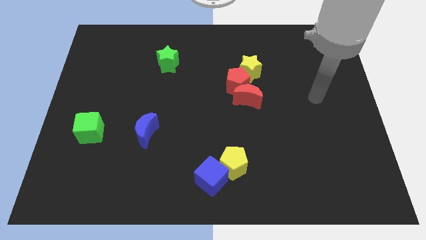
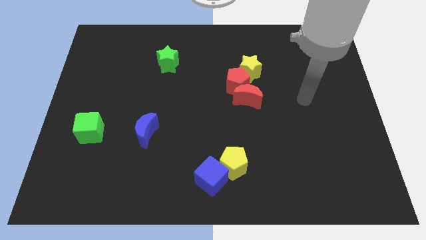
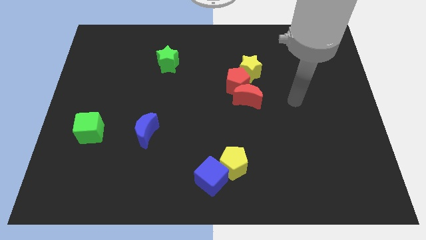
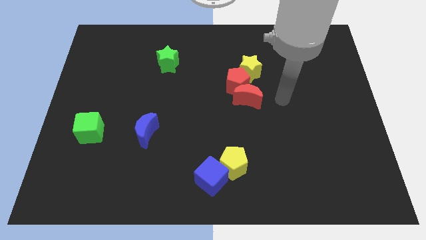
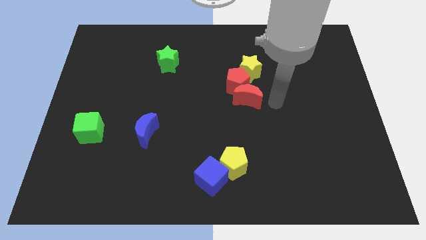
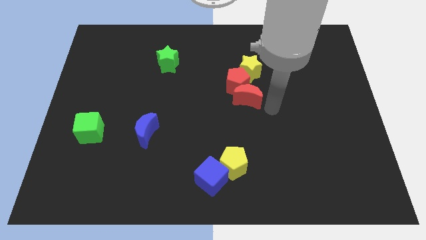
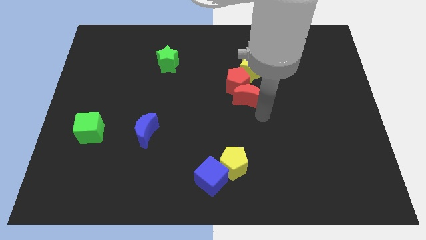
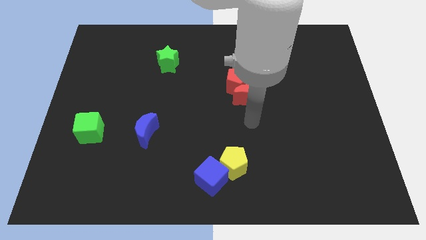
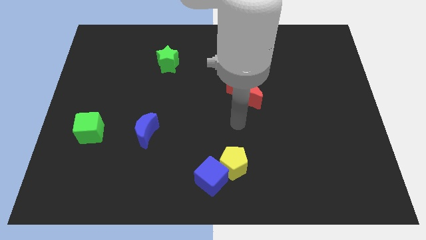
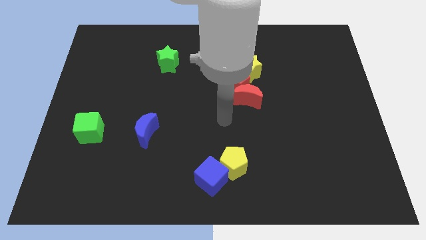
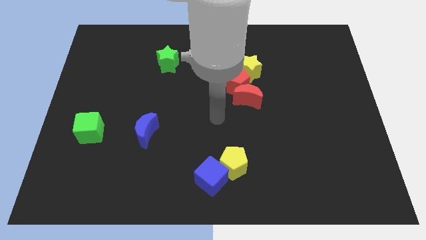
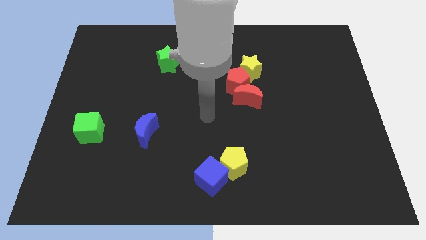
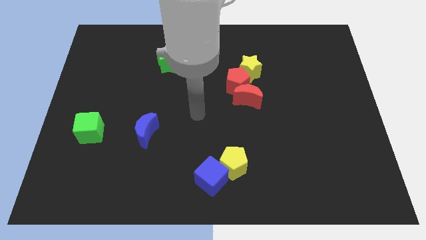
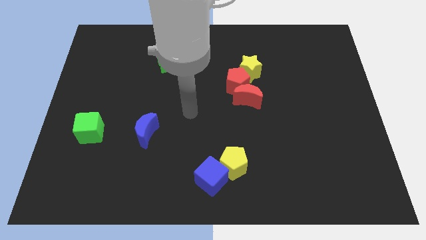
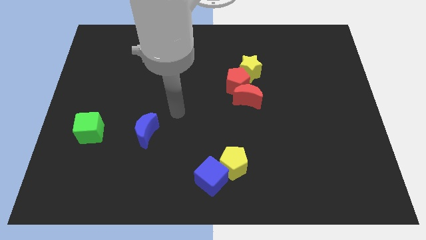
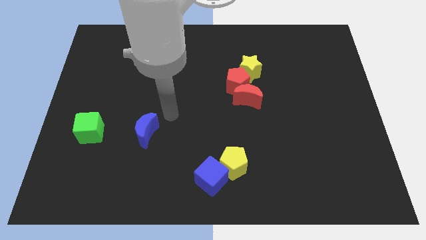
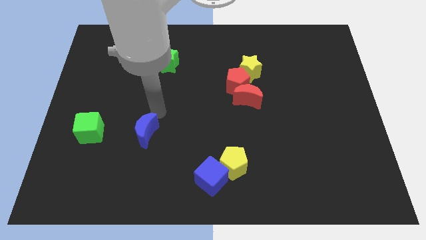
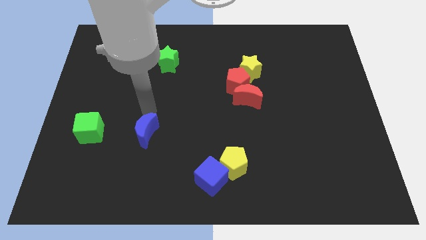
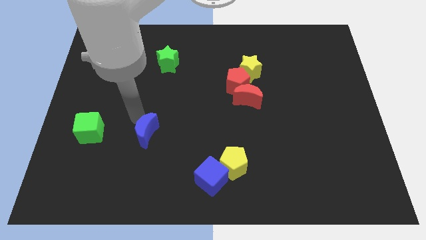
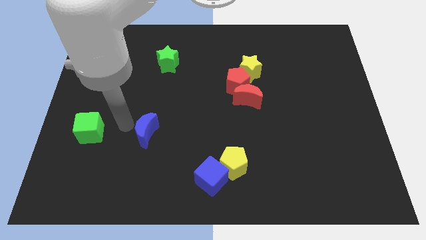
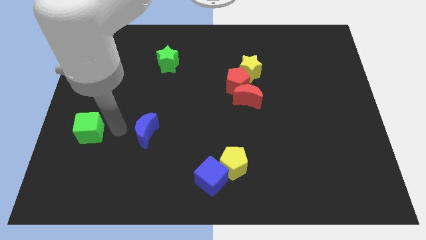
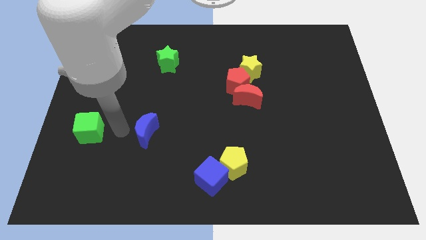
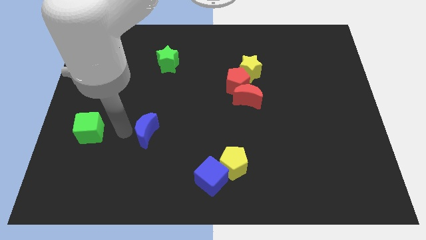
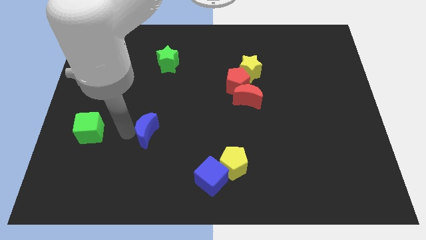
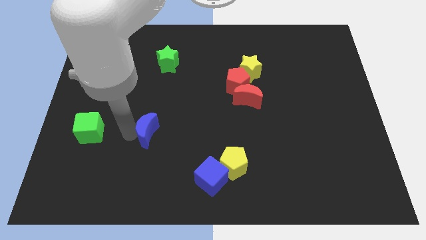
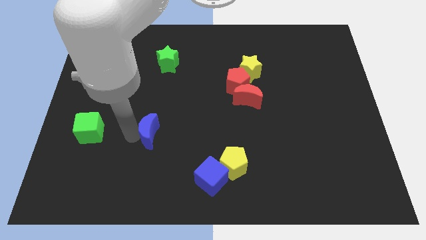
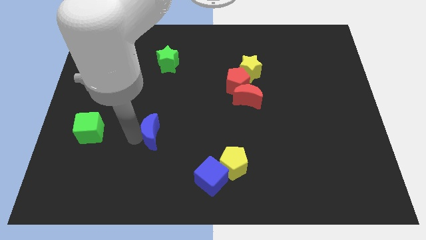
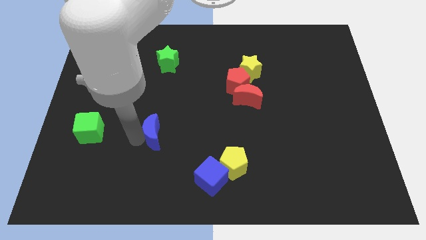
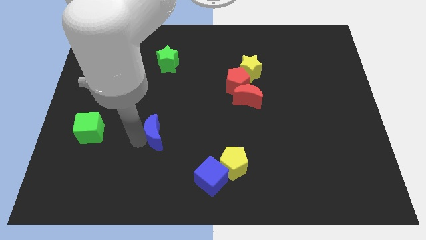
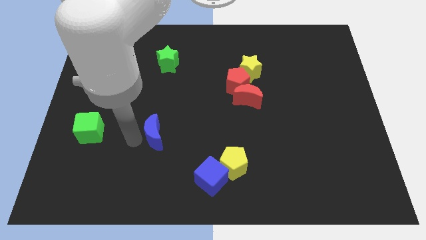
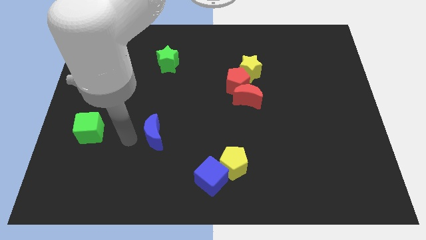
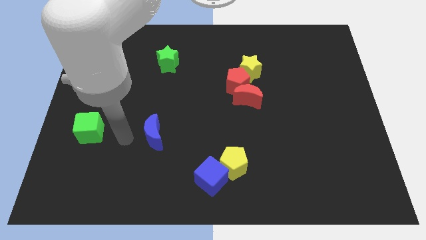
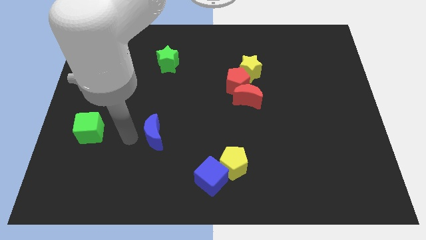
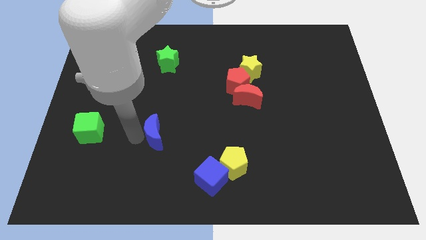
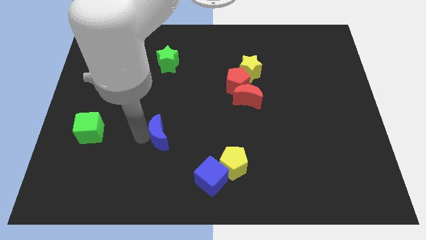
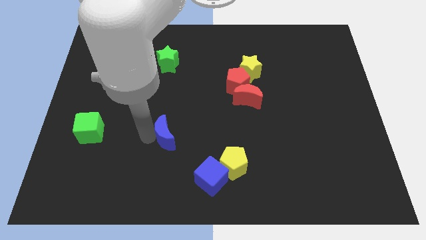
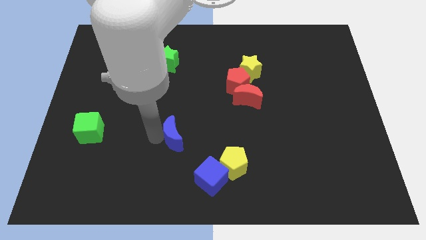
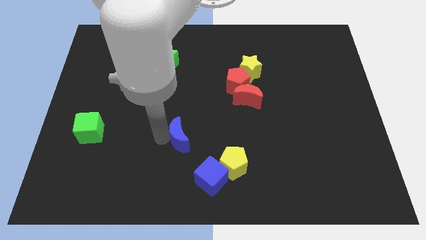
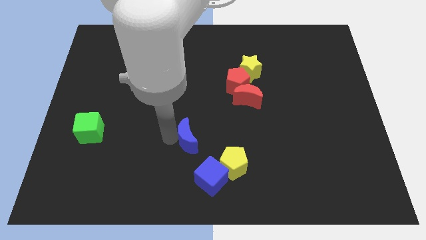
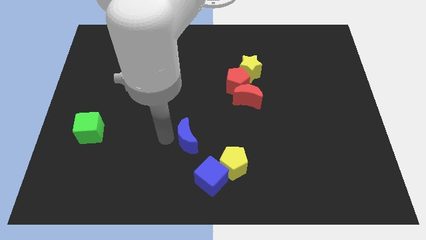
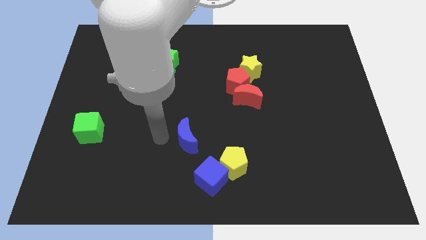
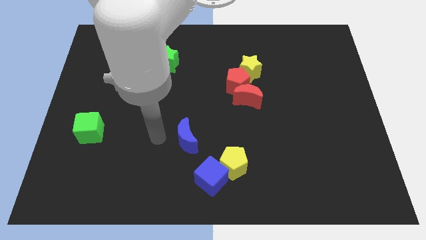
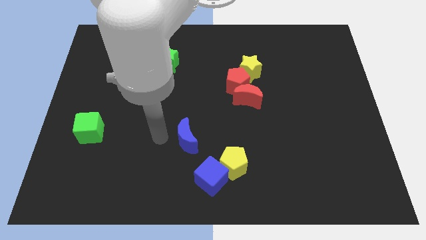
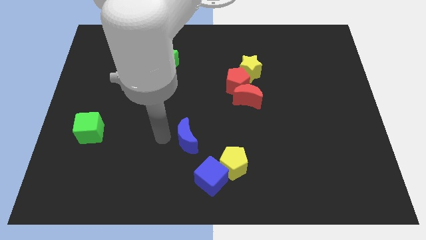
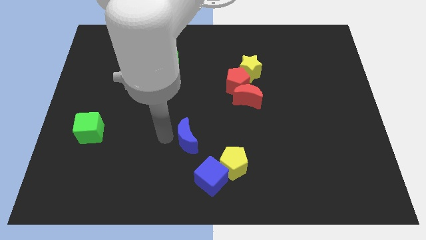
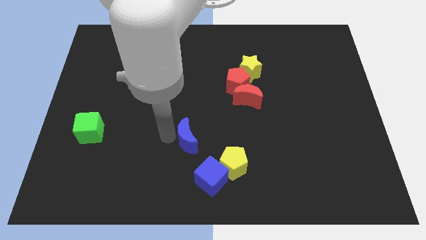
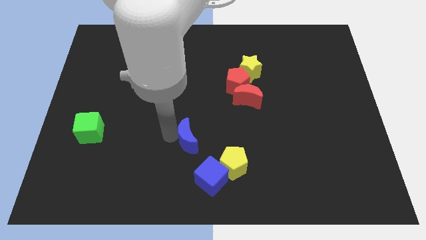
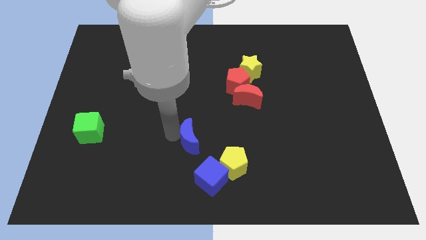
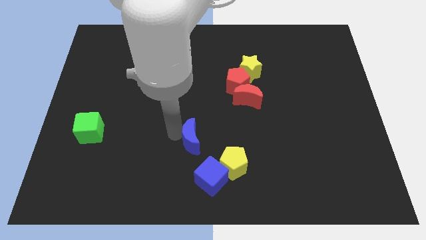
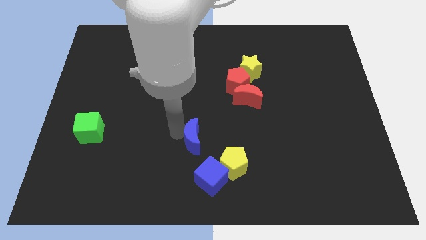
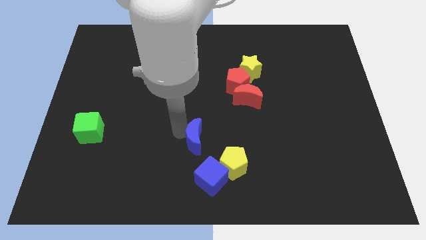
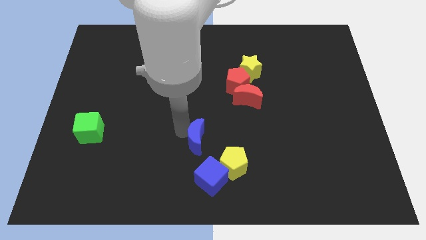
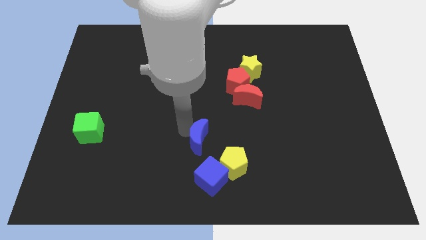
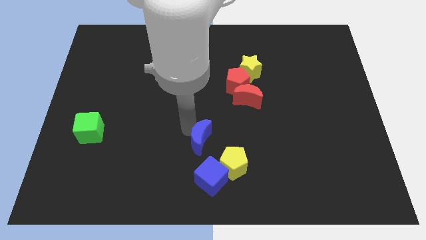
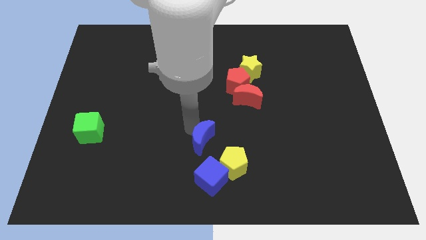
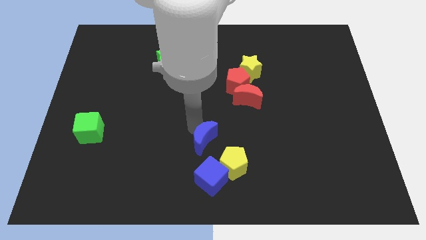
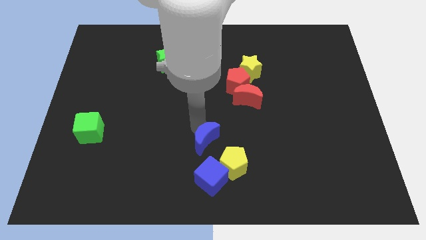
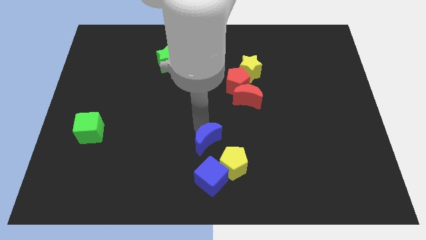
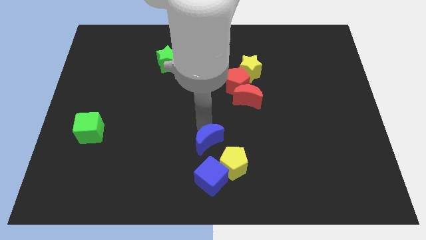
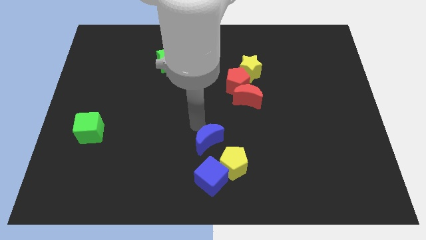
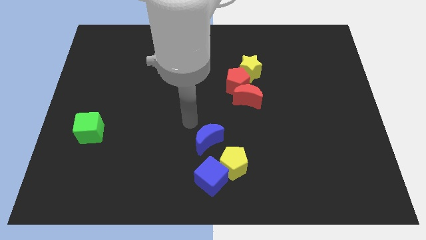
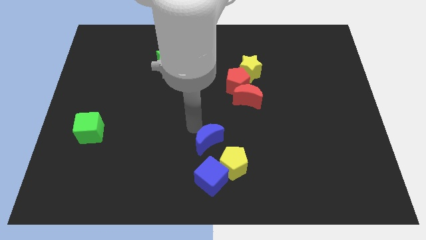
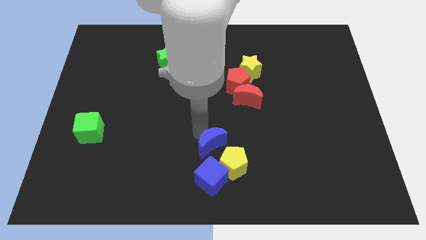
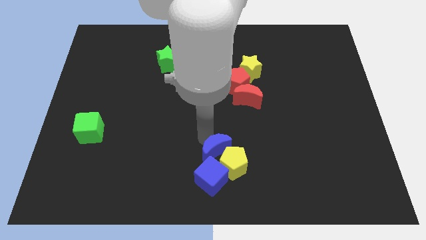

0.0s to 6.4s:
slide the blue moon to the yellow pentagon

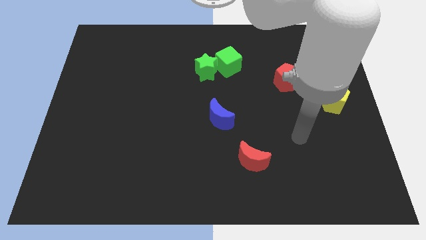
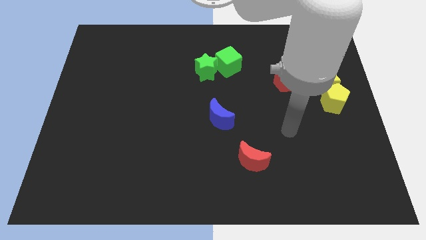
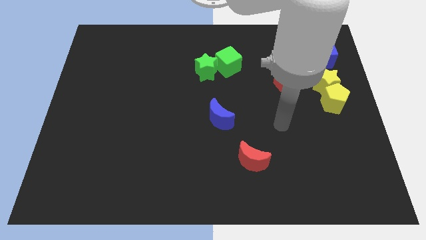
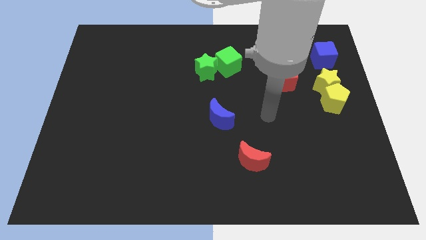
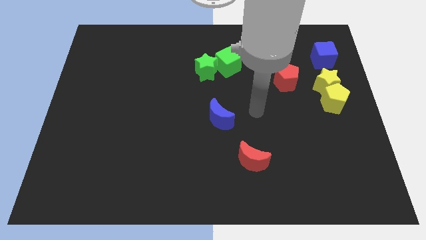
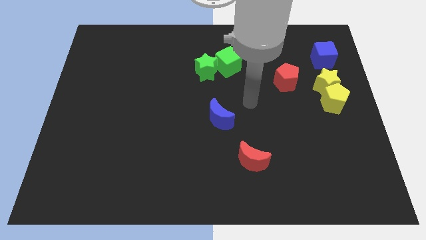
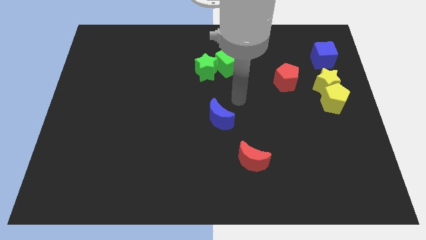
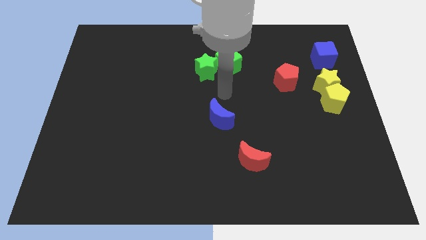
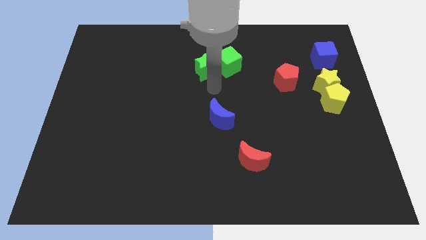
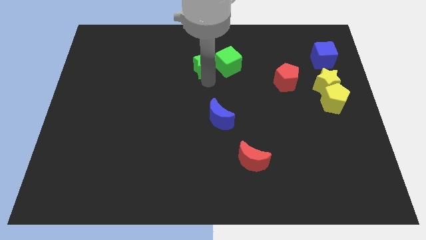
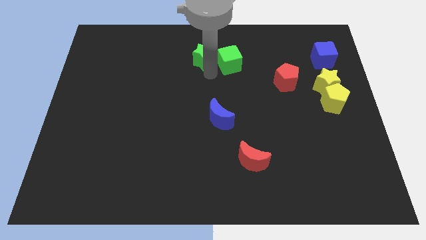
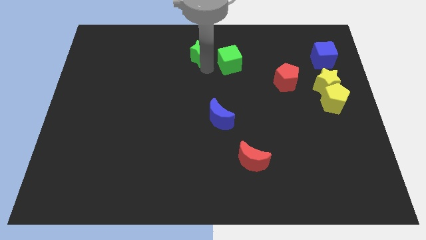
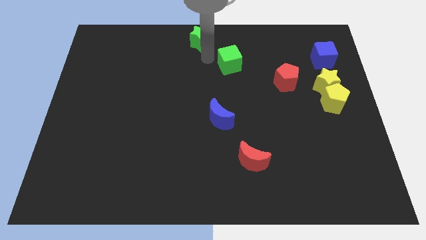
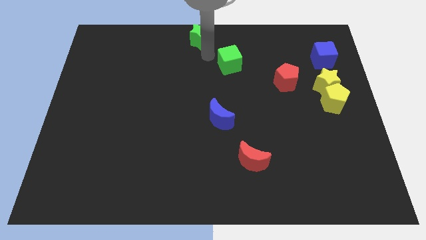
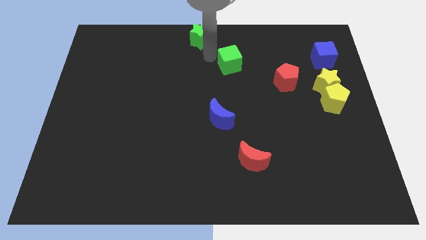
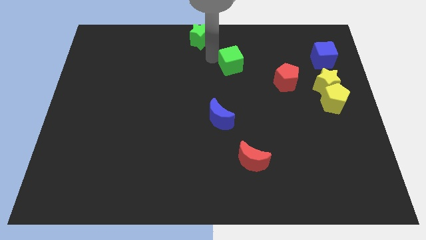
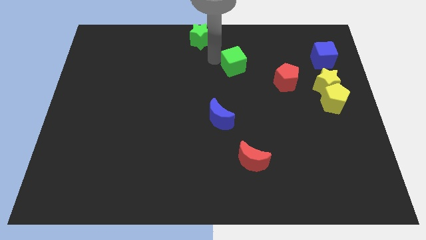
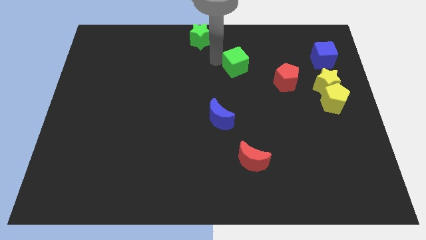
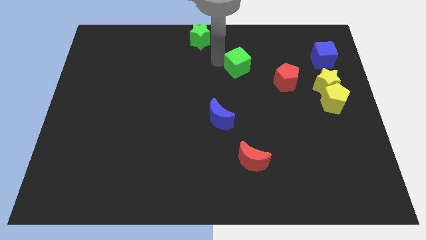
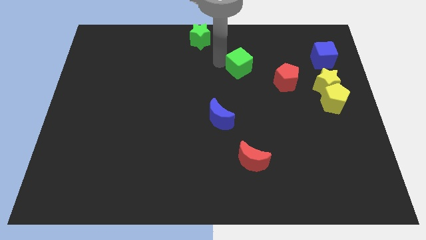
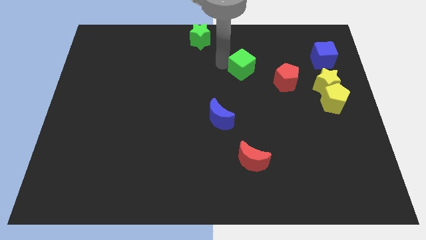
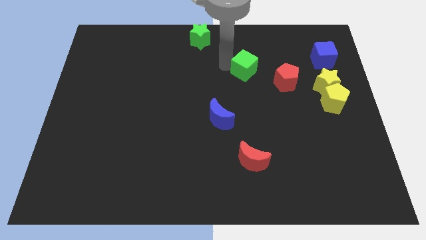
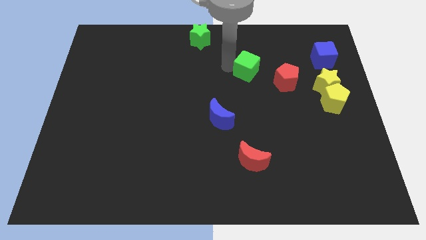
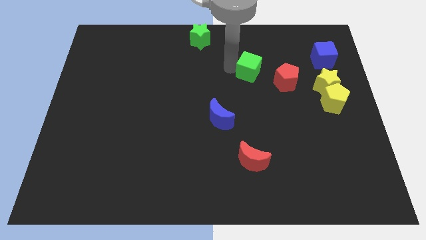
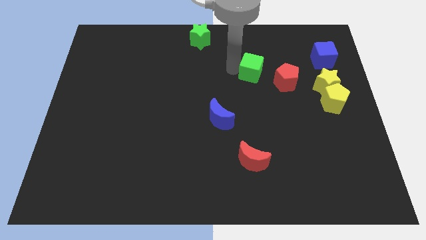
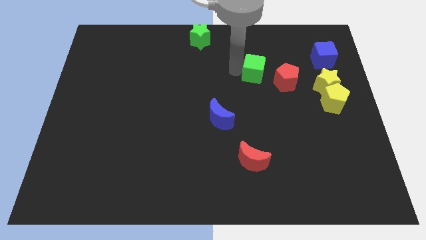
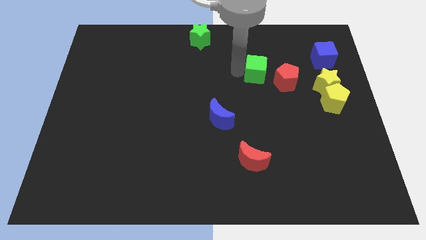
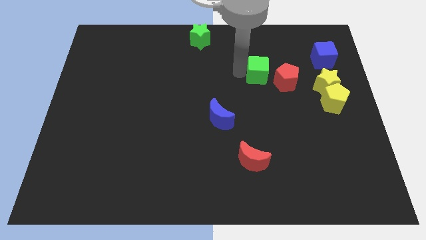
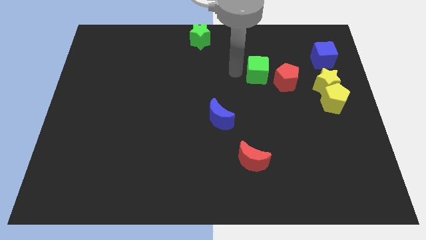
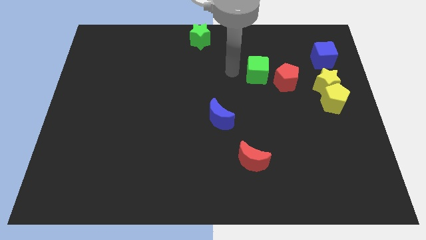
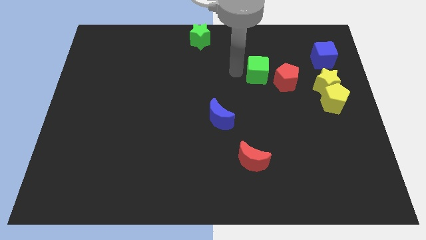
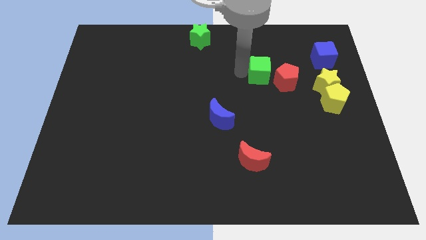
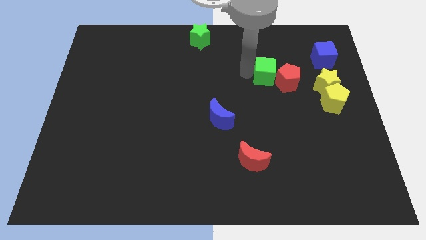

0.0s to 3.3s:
put the green cube close to the red pentagon
